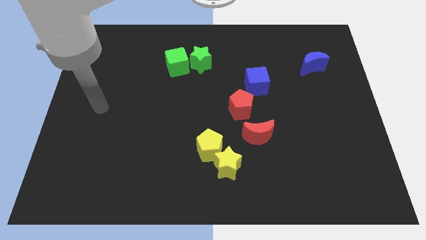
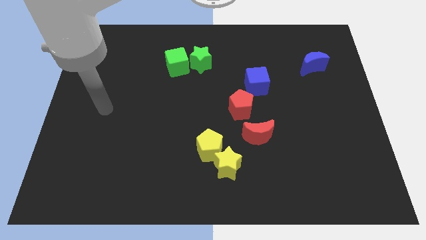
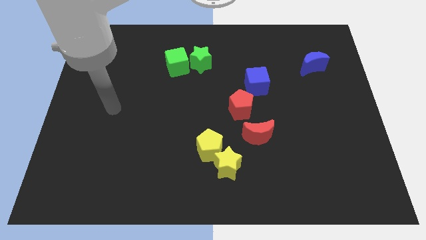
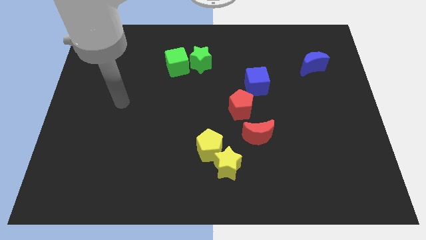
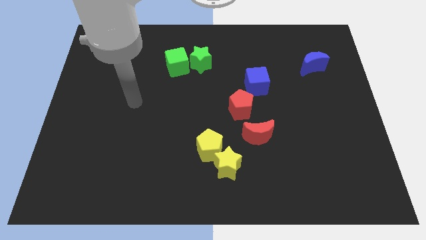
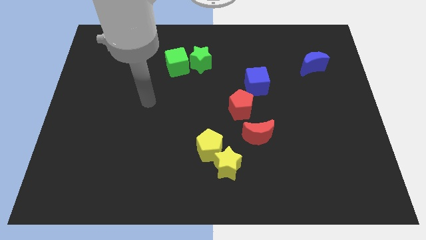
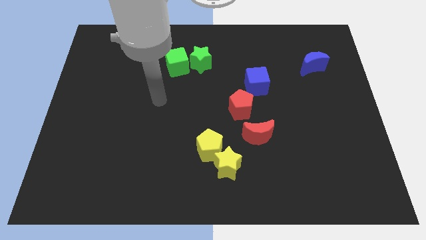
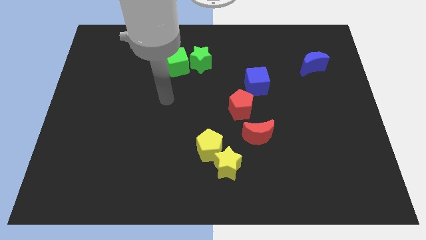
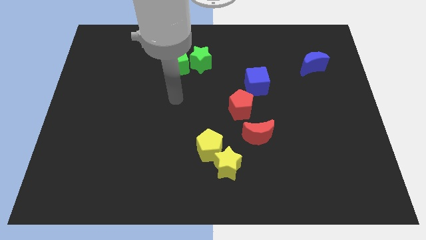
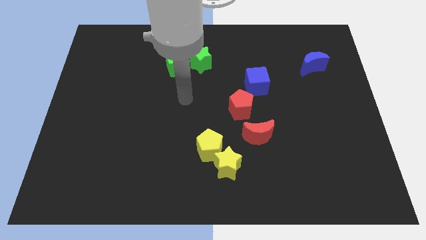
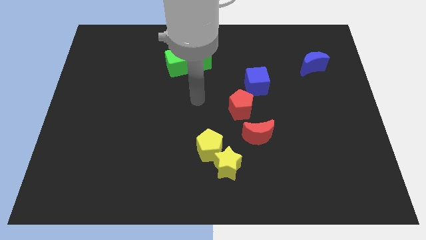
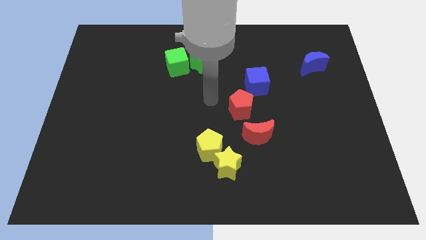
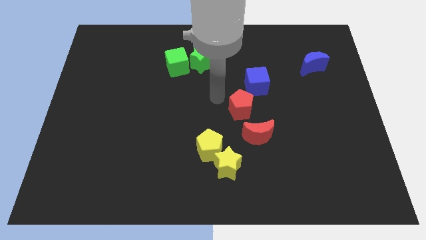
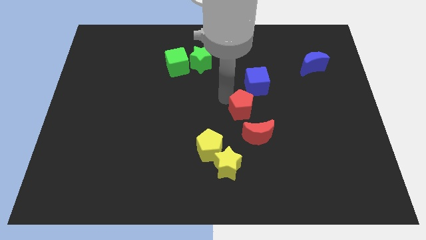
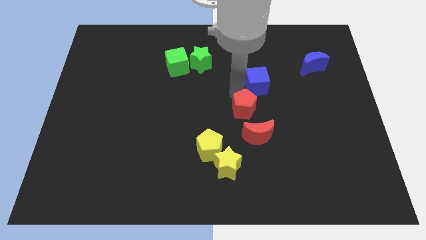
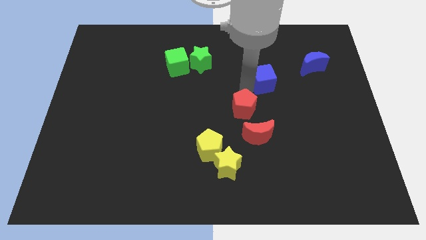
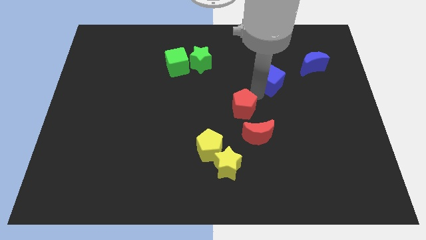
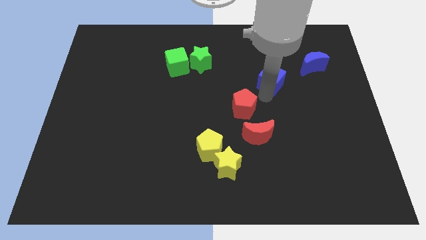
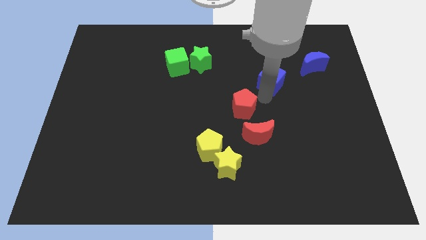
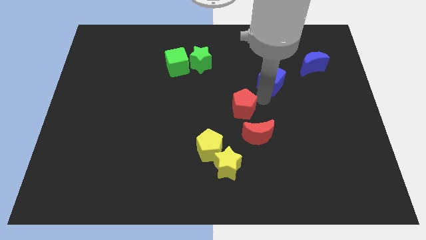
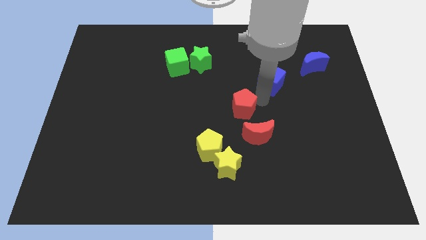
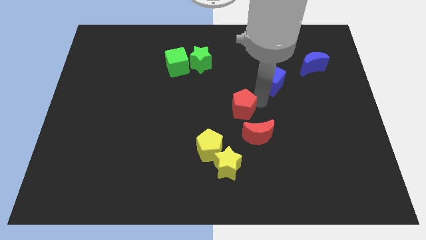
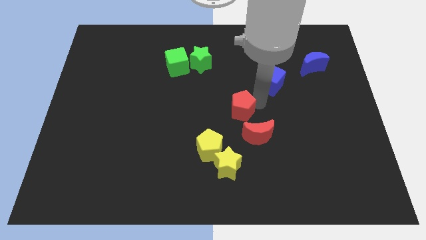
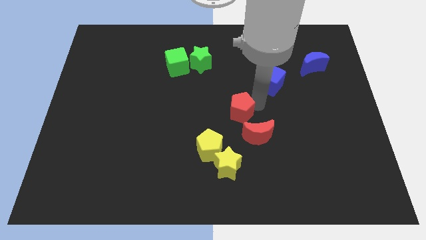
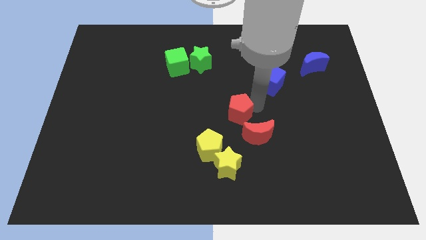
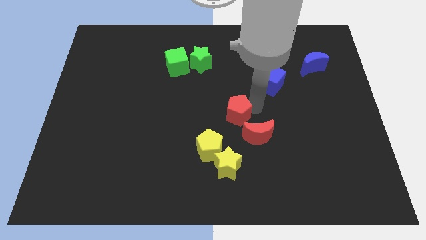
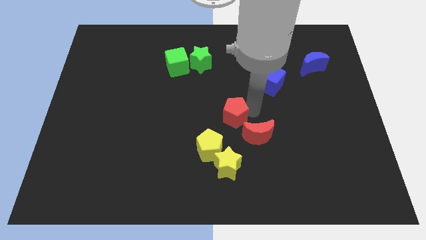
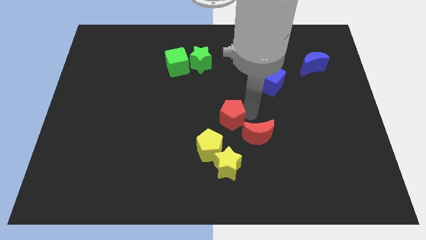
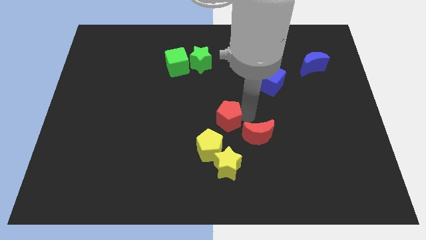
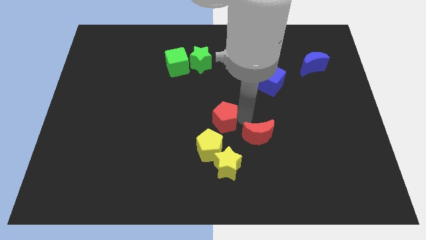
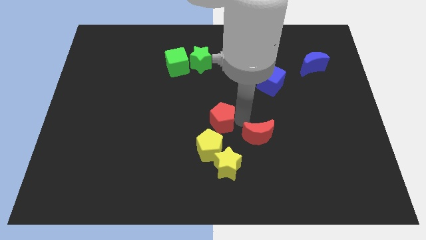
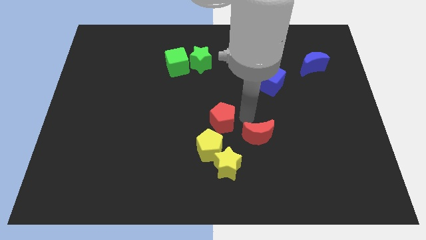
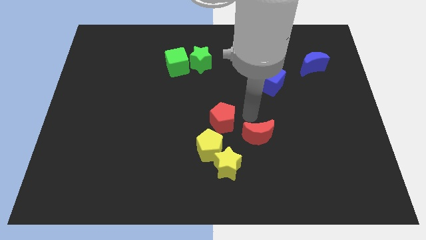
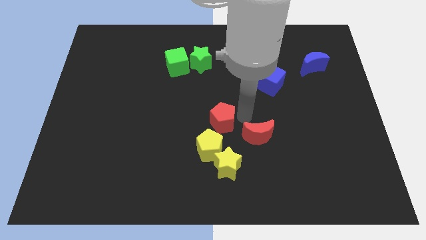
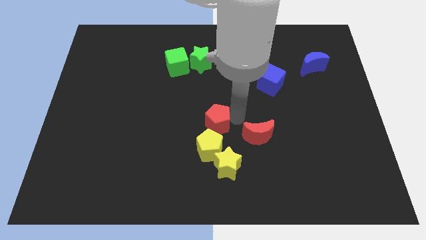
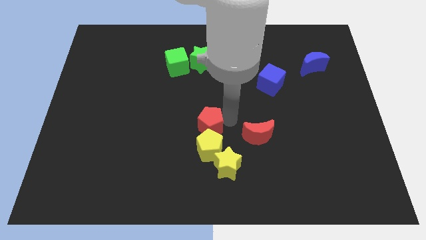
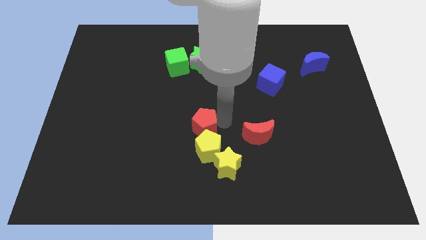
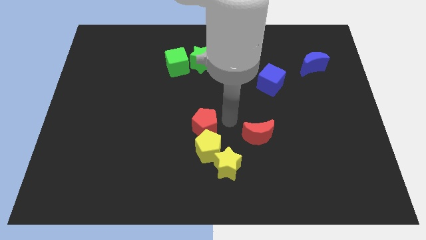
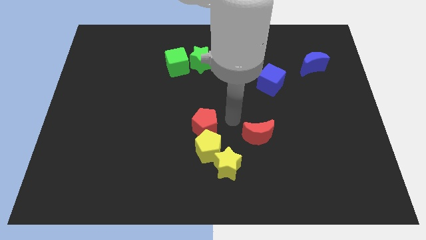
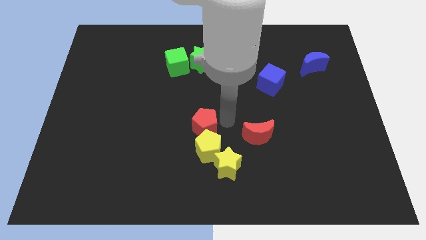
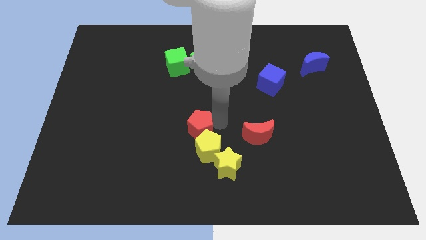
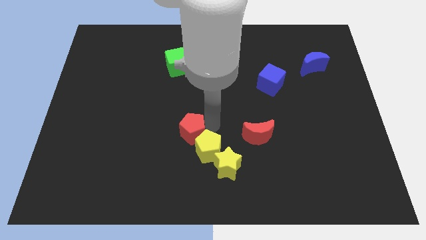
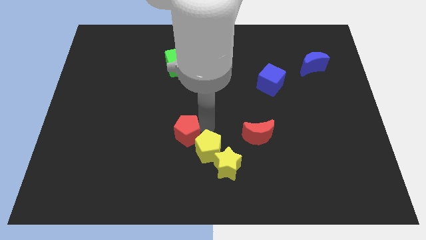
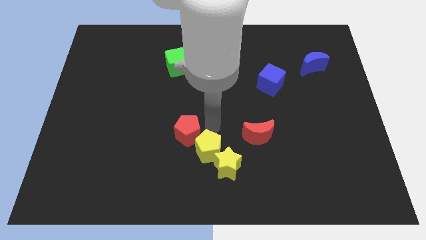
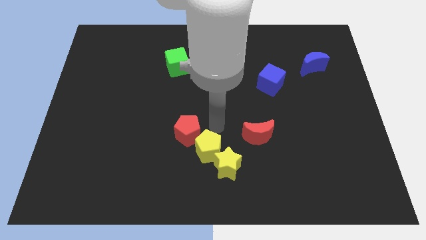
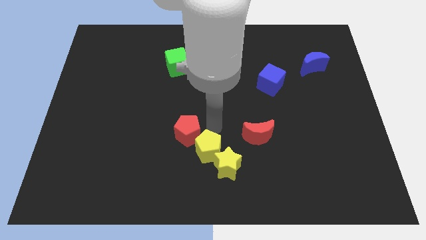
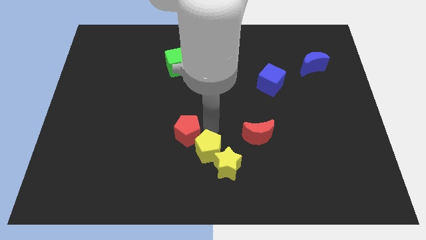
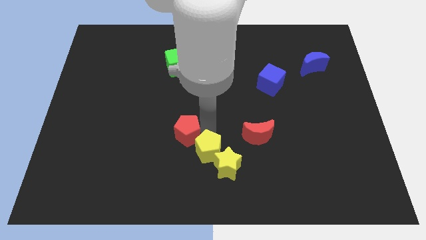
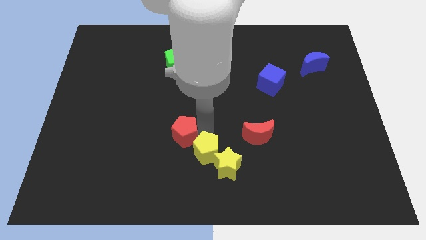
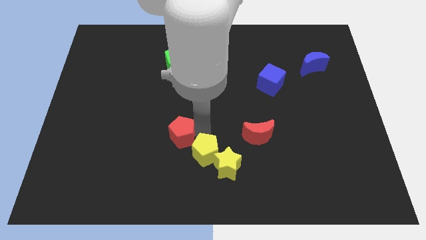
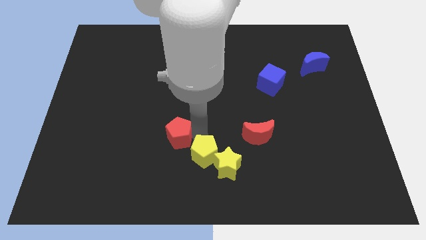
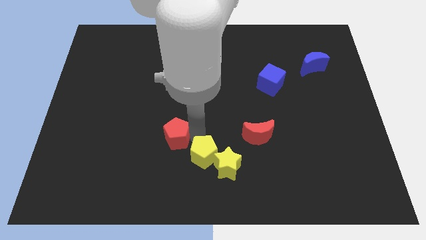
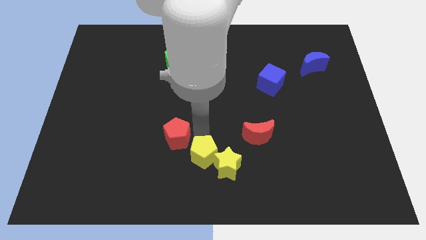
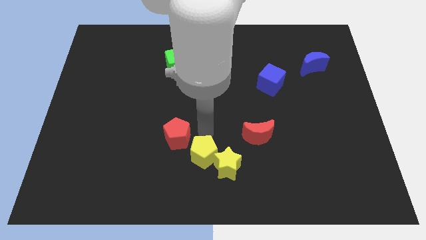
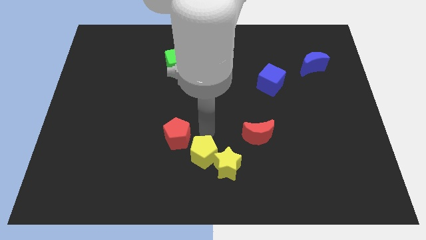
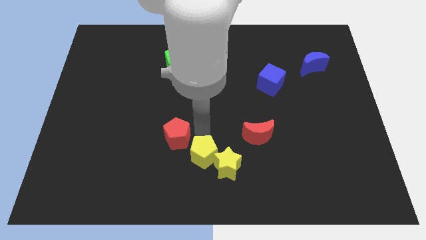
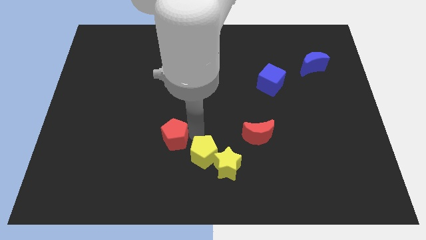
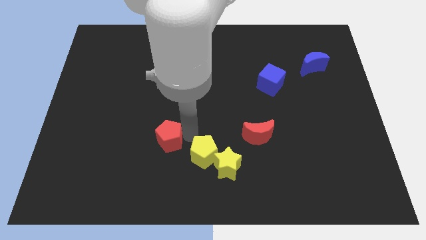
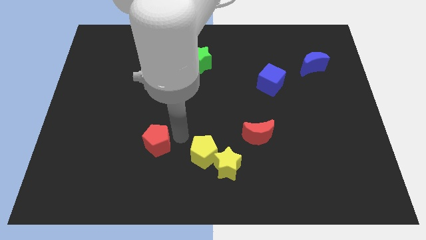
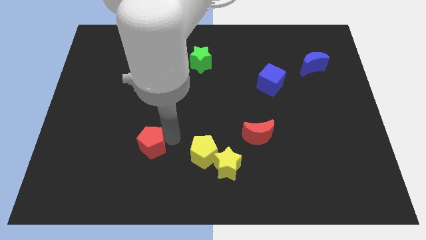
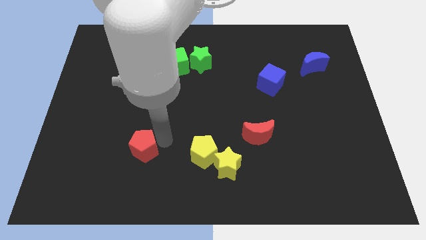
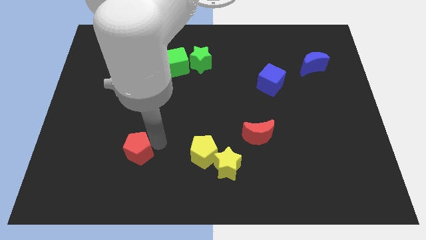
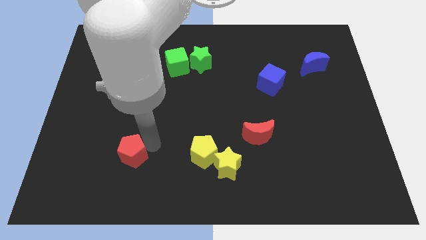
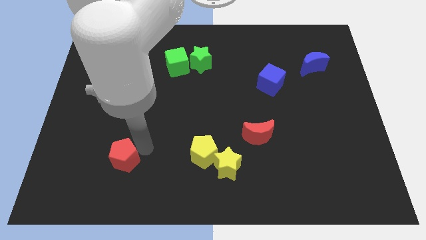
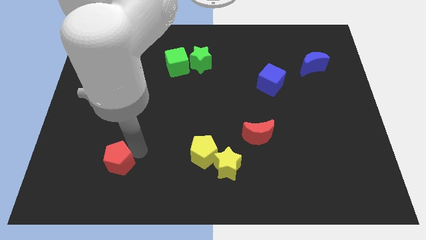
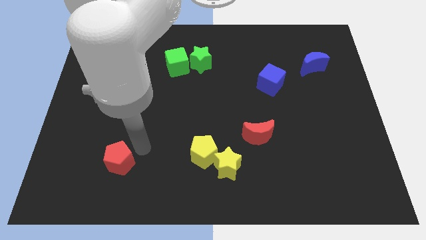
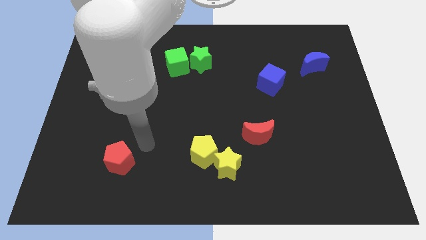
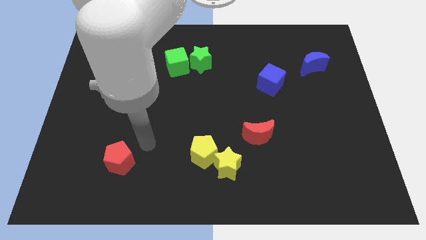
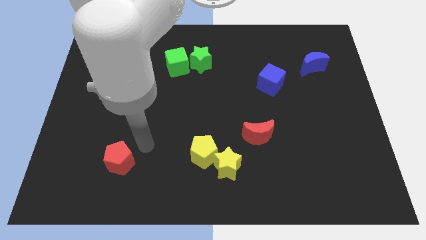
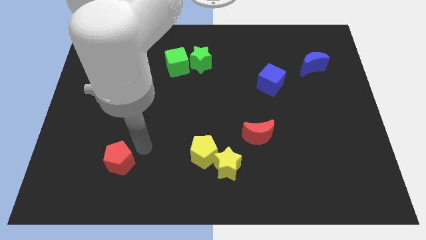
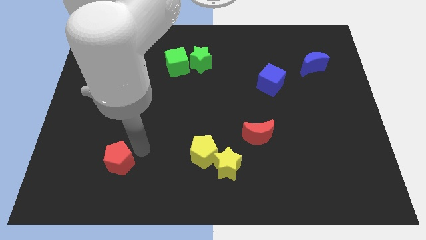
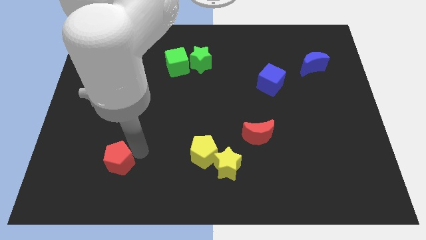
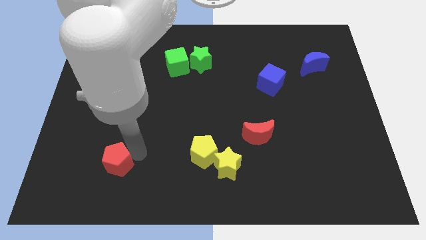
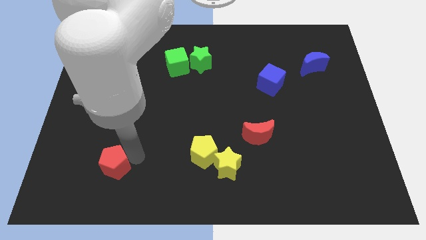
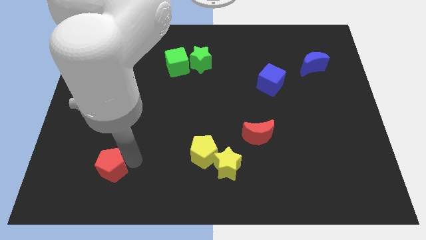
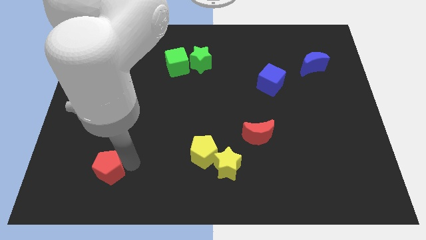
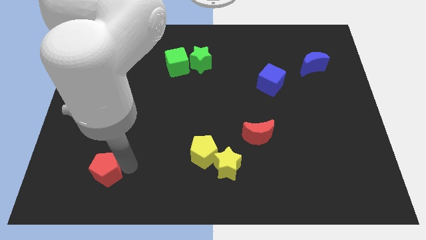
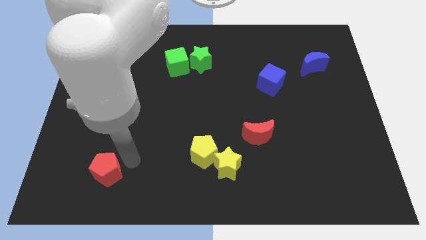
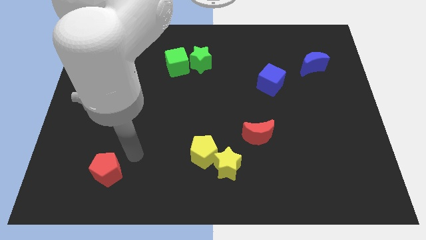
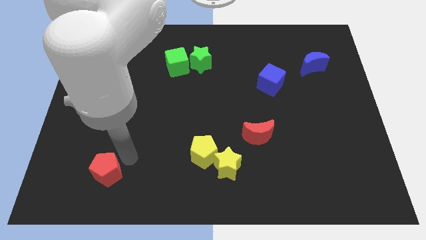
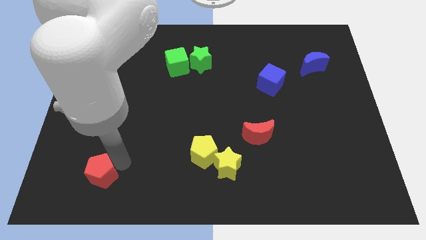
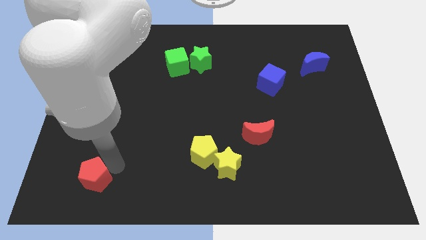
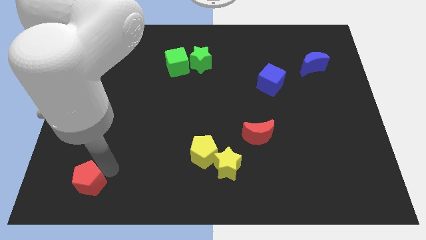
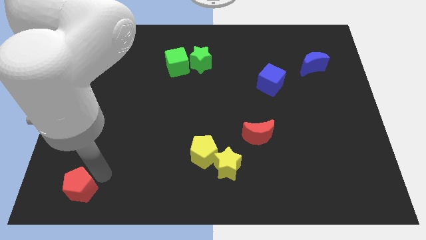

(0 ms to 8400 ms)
put the red pentagon to the bottom left
